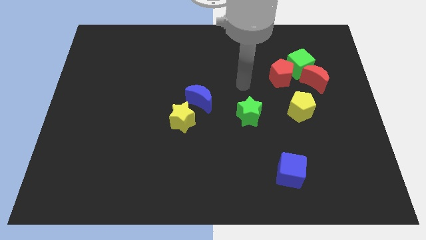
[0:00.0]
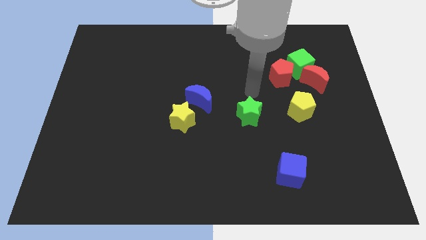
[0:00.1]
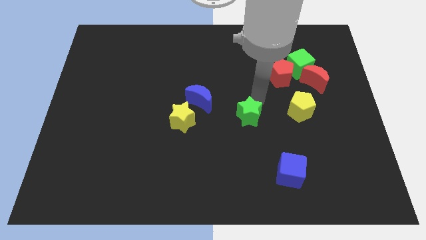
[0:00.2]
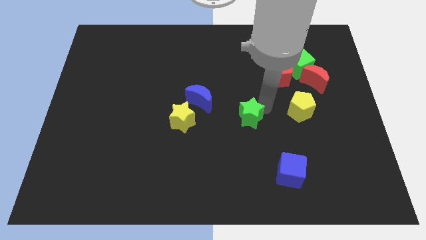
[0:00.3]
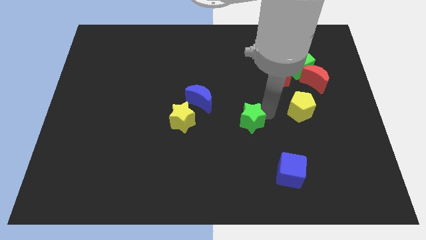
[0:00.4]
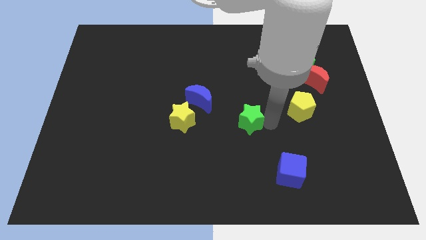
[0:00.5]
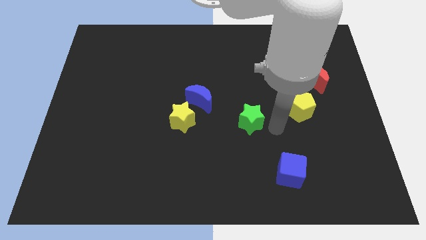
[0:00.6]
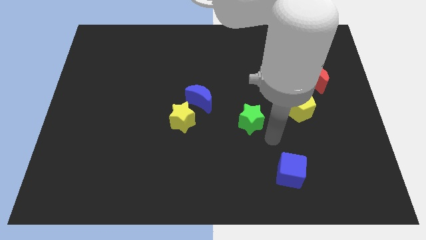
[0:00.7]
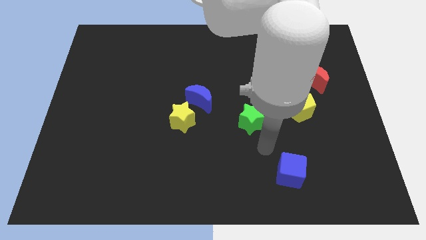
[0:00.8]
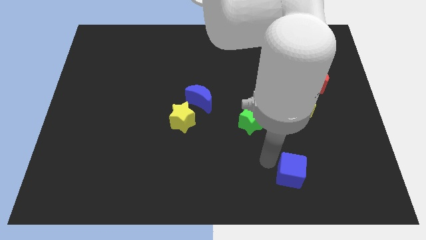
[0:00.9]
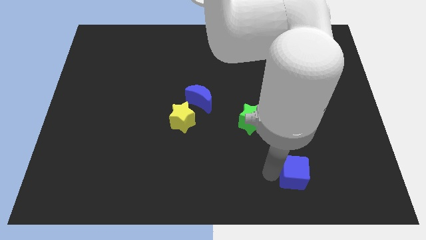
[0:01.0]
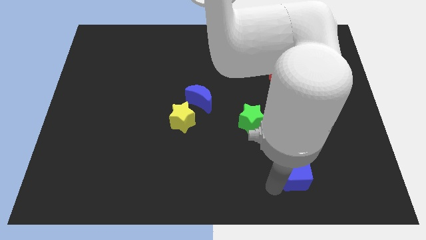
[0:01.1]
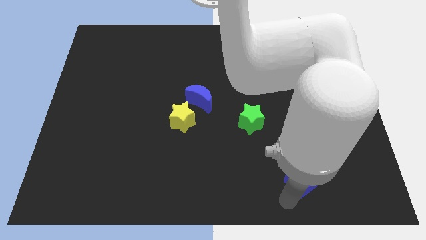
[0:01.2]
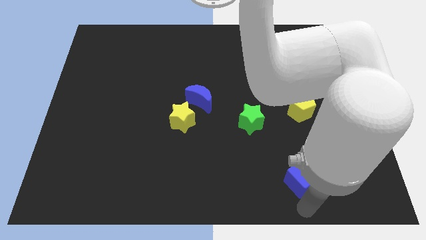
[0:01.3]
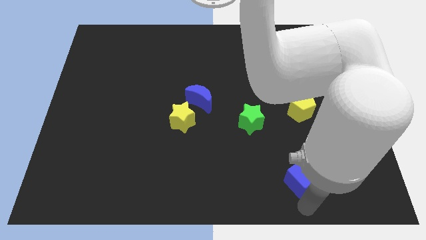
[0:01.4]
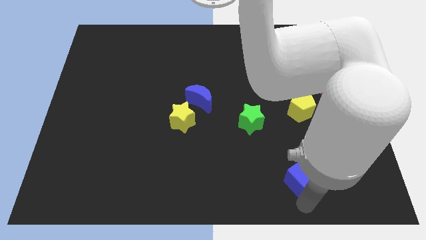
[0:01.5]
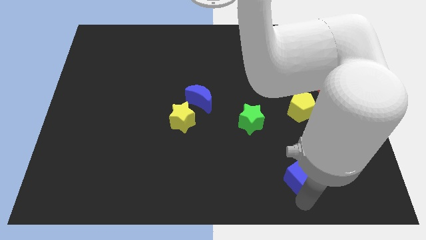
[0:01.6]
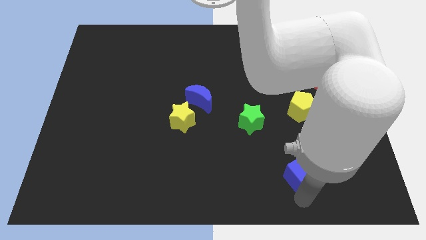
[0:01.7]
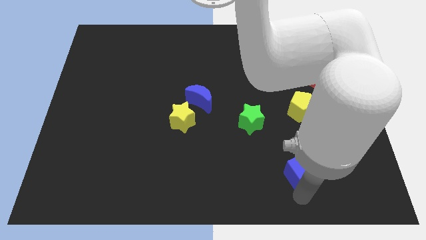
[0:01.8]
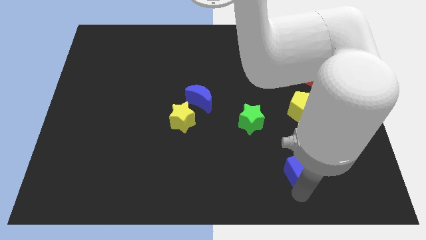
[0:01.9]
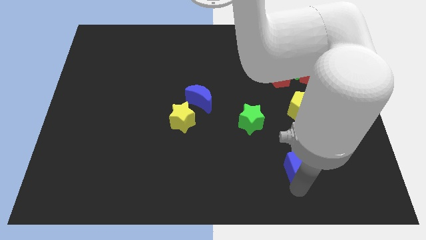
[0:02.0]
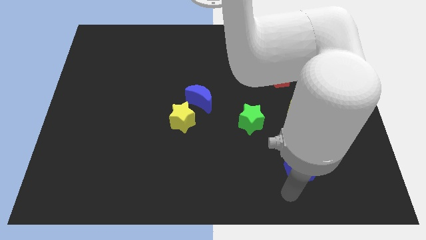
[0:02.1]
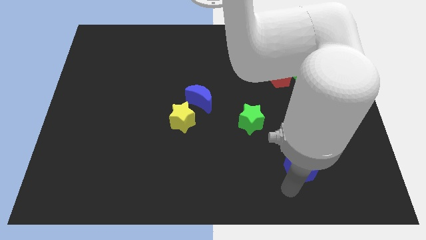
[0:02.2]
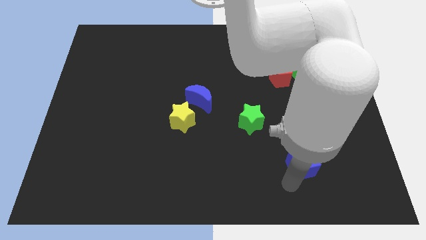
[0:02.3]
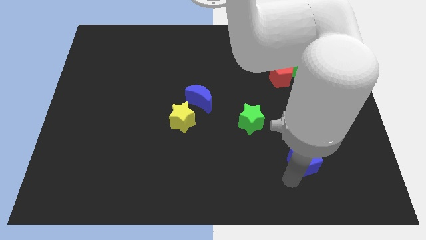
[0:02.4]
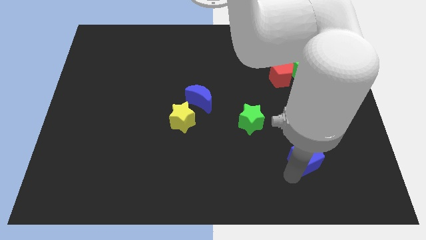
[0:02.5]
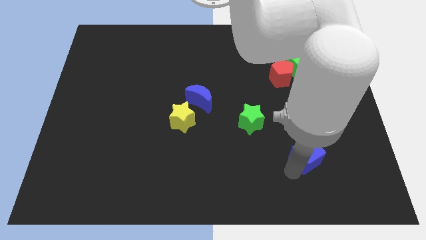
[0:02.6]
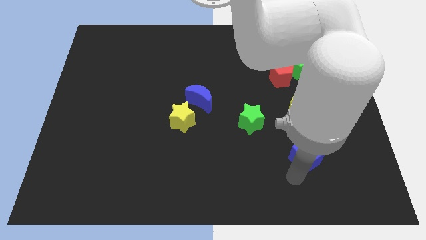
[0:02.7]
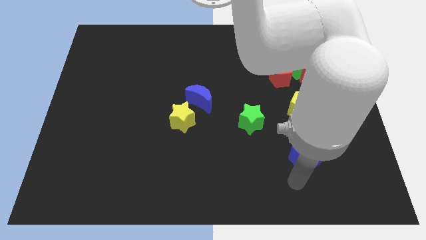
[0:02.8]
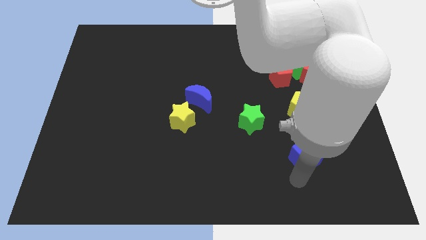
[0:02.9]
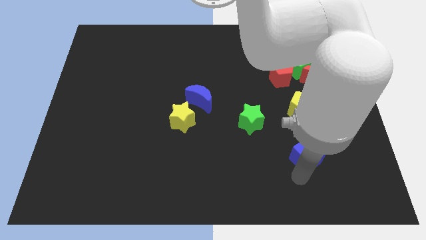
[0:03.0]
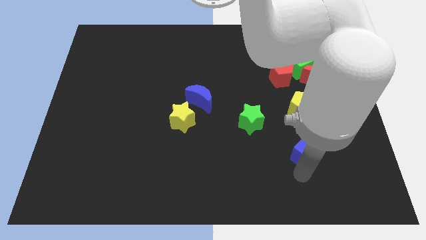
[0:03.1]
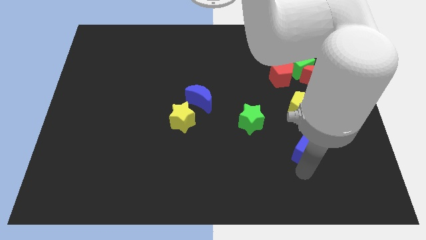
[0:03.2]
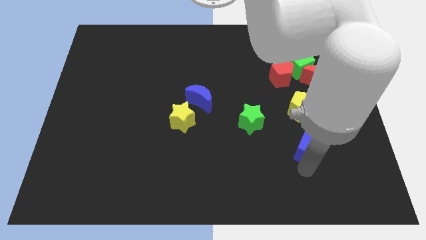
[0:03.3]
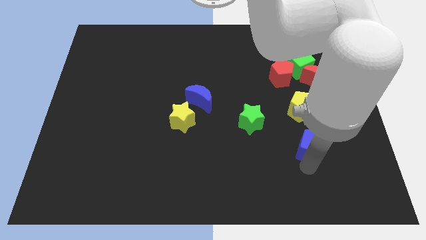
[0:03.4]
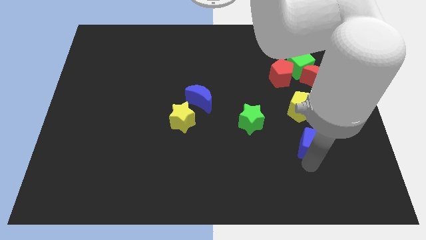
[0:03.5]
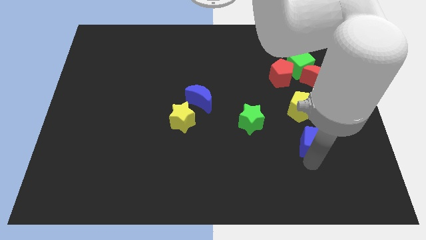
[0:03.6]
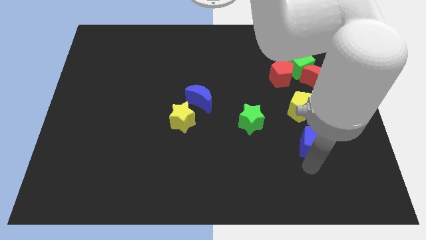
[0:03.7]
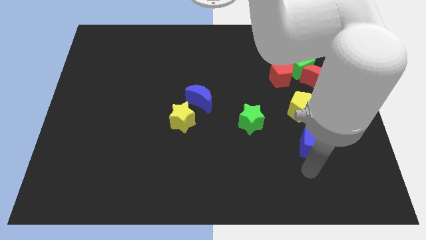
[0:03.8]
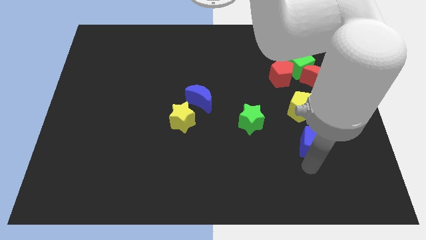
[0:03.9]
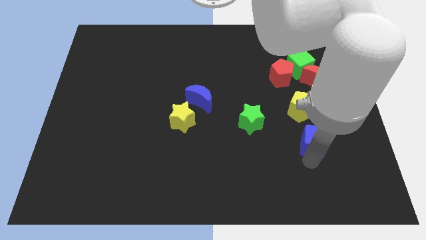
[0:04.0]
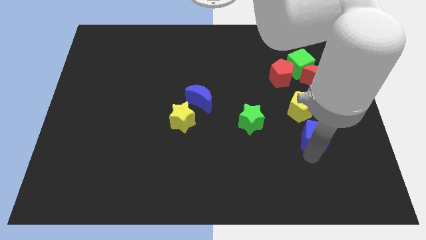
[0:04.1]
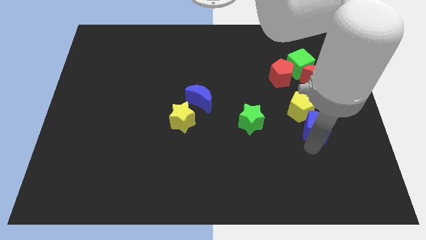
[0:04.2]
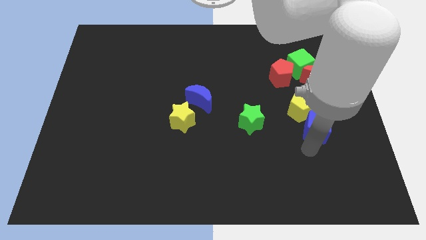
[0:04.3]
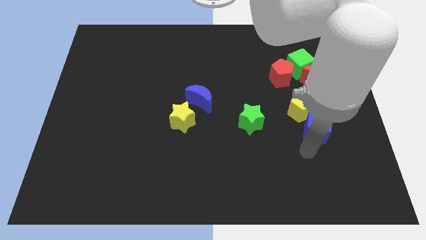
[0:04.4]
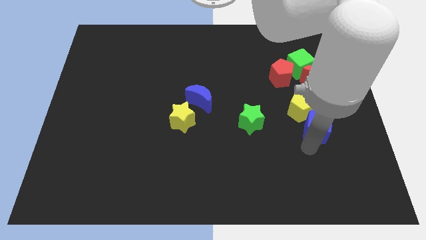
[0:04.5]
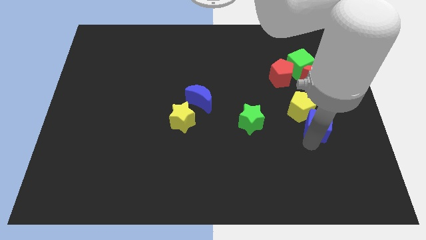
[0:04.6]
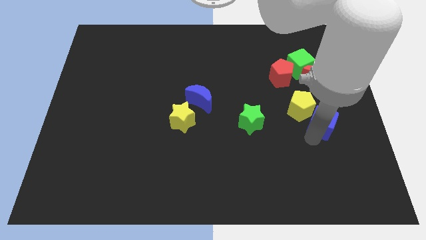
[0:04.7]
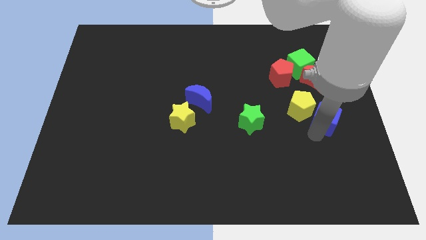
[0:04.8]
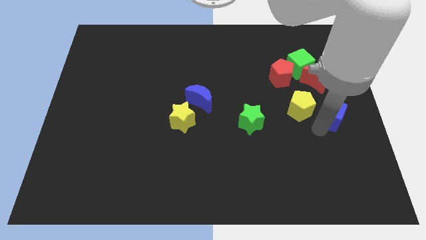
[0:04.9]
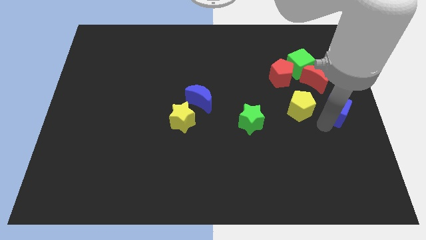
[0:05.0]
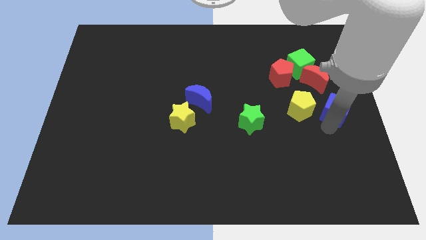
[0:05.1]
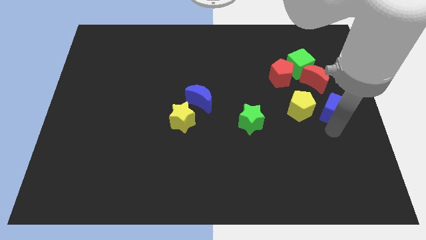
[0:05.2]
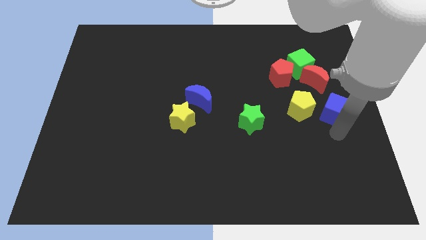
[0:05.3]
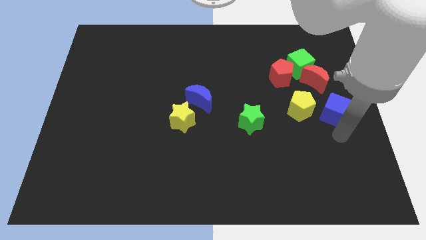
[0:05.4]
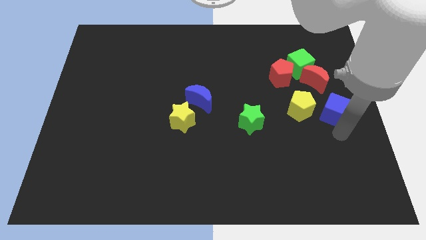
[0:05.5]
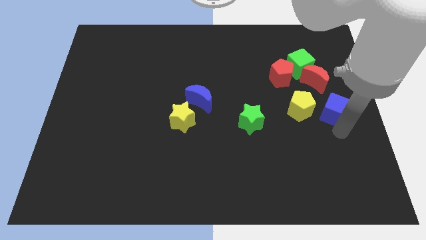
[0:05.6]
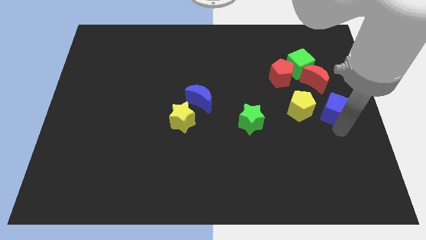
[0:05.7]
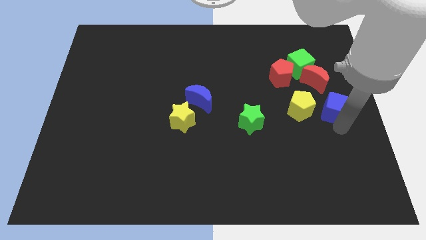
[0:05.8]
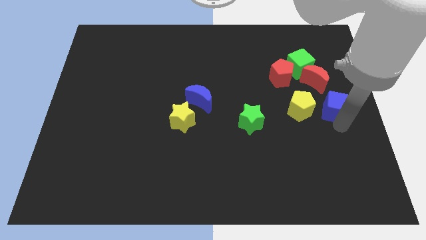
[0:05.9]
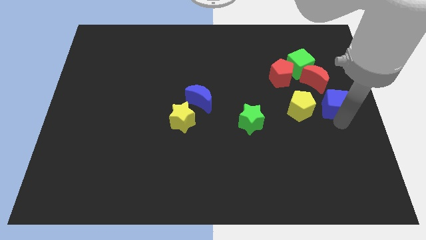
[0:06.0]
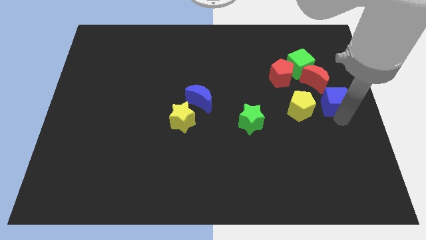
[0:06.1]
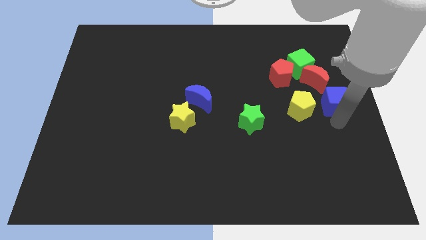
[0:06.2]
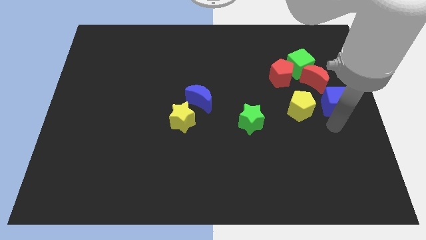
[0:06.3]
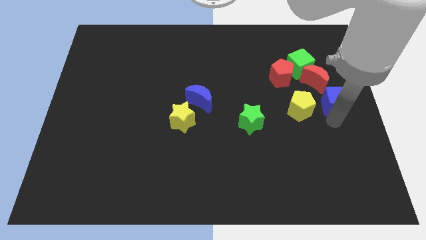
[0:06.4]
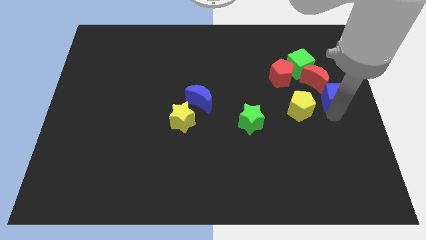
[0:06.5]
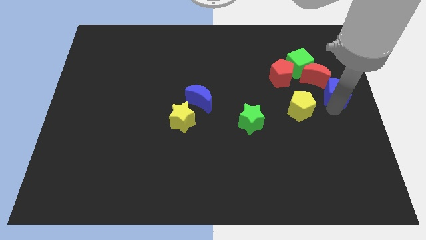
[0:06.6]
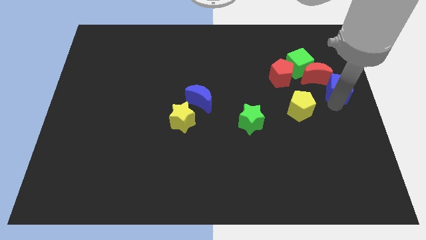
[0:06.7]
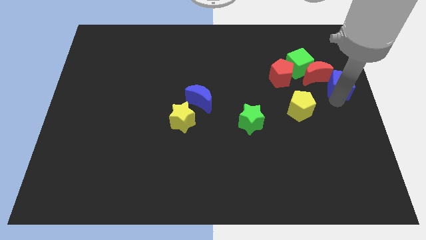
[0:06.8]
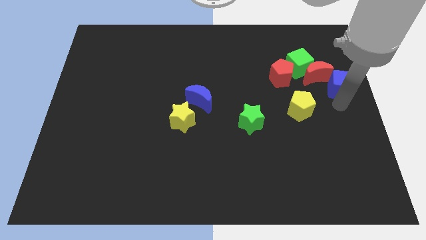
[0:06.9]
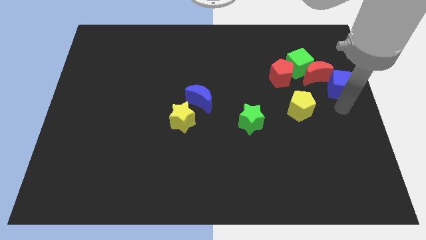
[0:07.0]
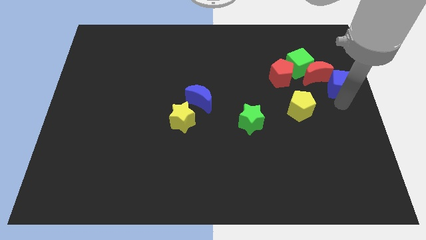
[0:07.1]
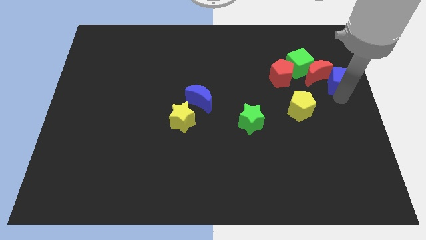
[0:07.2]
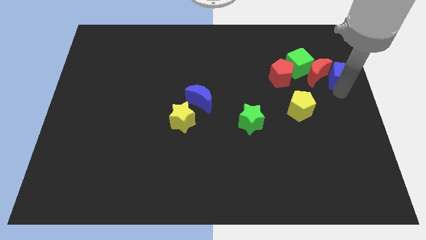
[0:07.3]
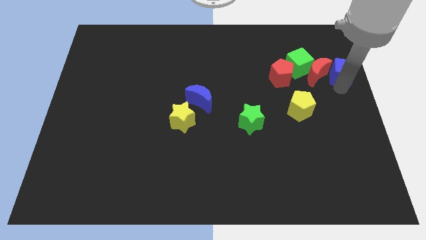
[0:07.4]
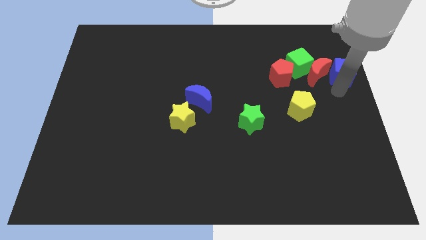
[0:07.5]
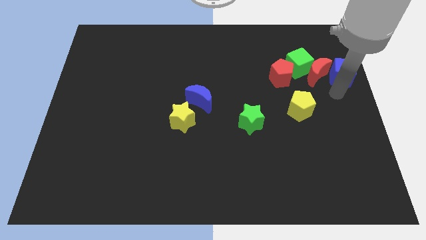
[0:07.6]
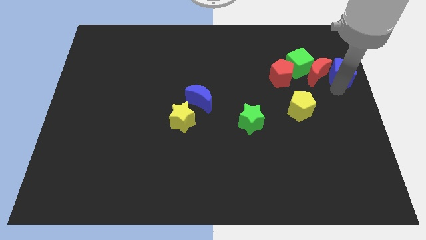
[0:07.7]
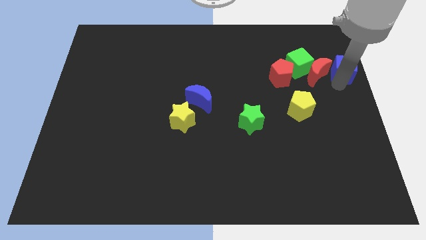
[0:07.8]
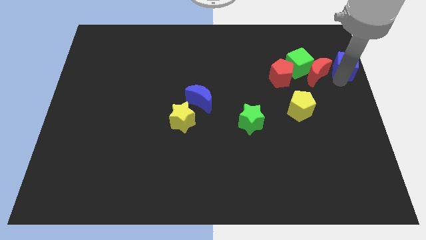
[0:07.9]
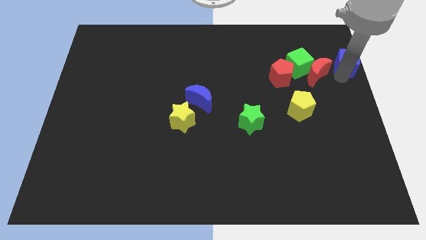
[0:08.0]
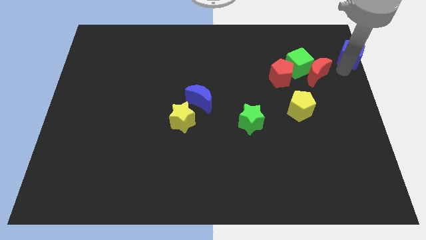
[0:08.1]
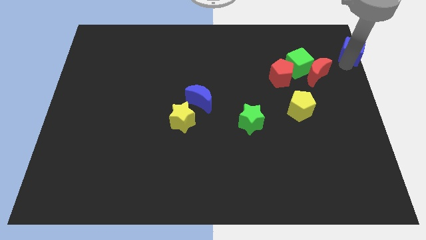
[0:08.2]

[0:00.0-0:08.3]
slide the blue cube to the top right
